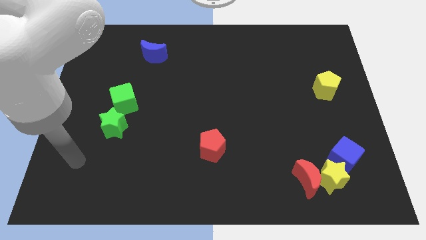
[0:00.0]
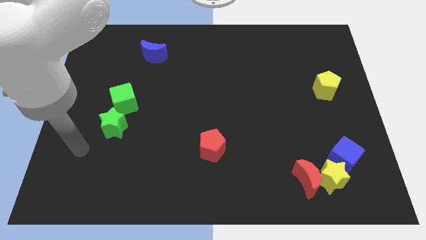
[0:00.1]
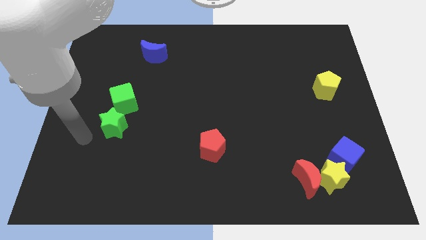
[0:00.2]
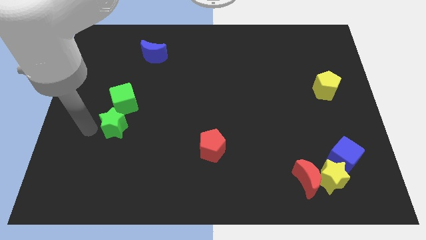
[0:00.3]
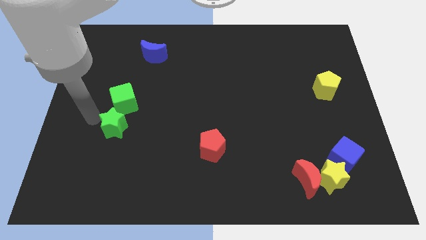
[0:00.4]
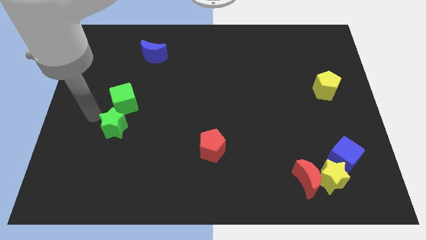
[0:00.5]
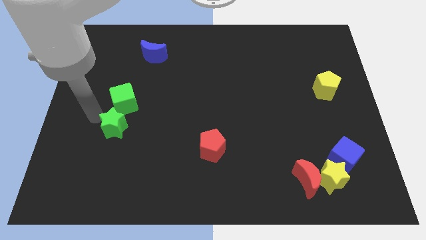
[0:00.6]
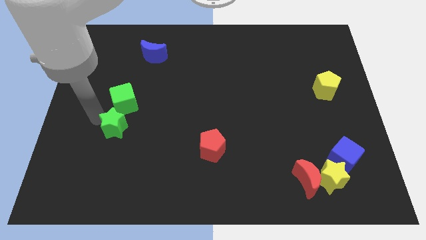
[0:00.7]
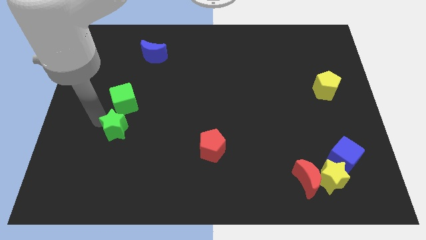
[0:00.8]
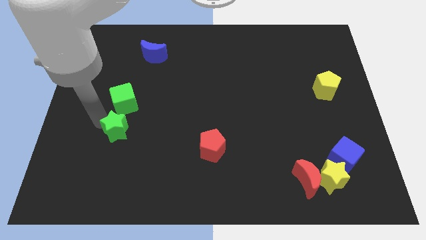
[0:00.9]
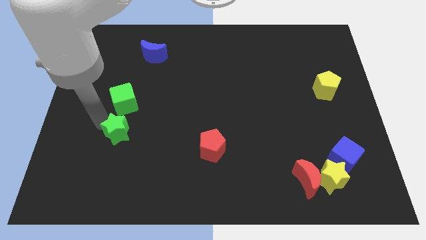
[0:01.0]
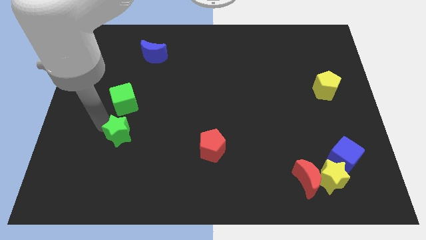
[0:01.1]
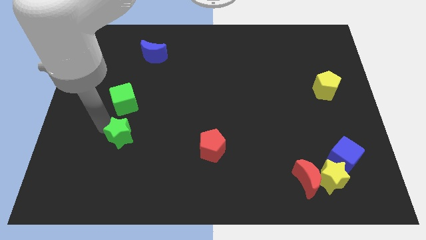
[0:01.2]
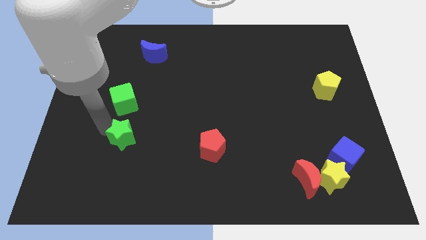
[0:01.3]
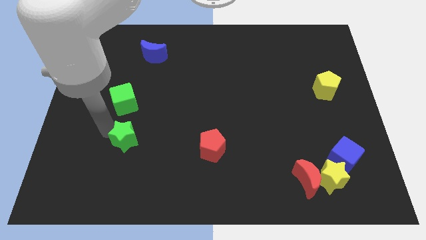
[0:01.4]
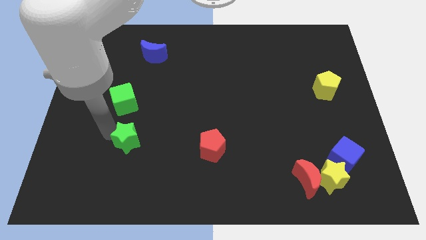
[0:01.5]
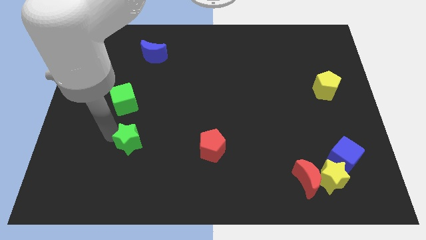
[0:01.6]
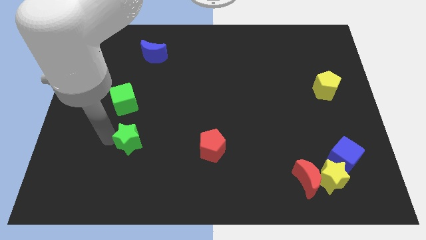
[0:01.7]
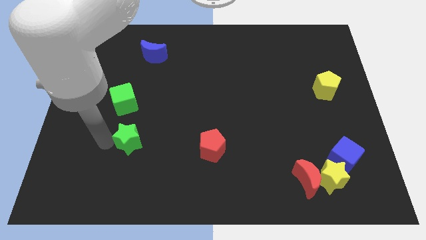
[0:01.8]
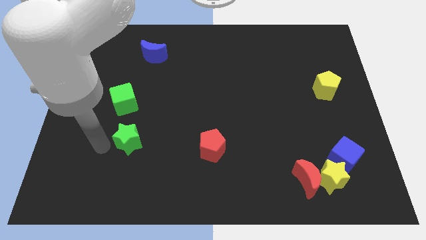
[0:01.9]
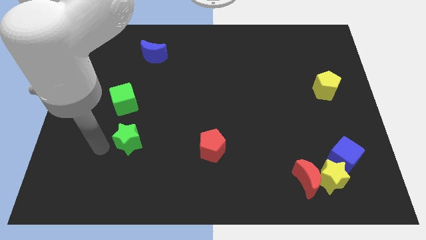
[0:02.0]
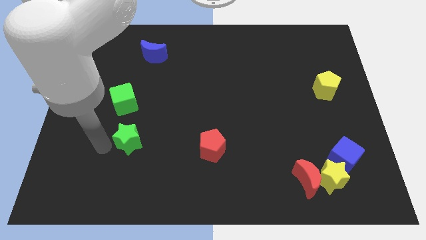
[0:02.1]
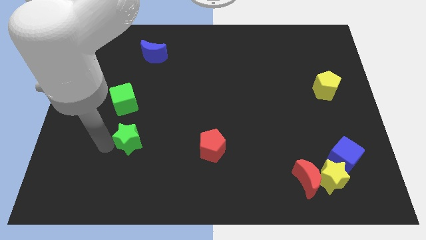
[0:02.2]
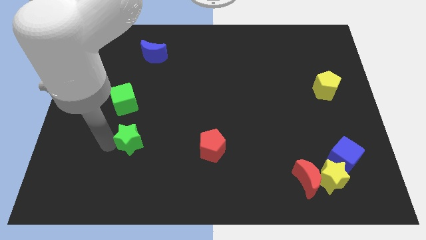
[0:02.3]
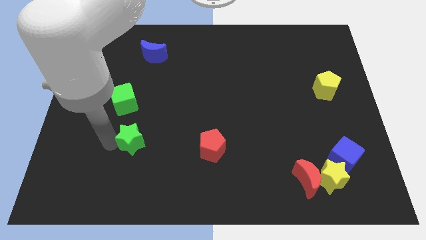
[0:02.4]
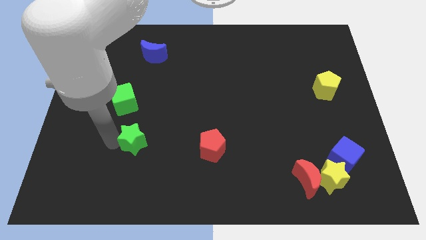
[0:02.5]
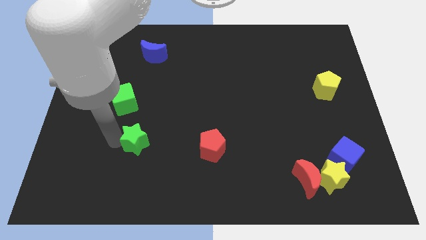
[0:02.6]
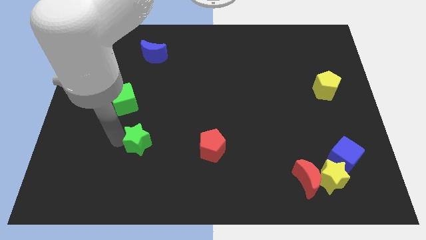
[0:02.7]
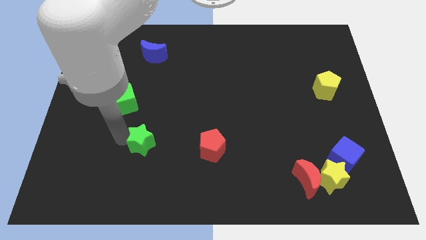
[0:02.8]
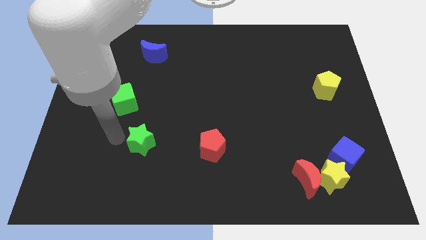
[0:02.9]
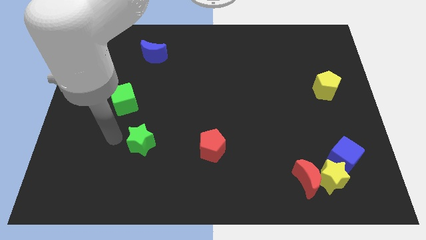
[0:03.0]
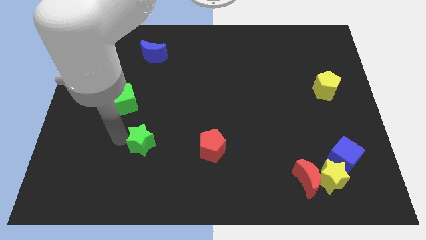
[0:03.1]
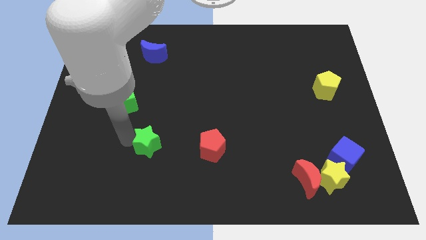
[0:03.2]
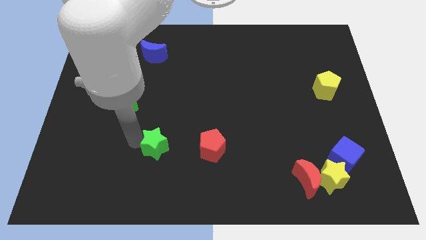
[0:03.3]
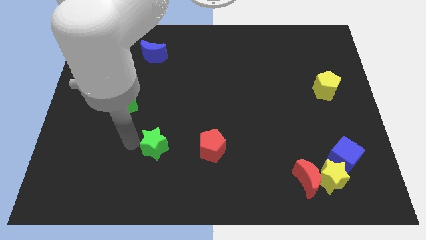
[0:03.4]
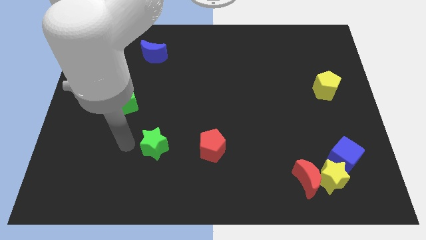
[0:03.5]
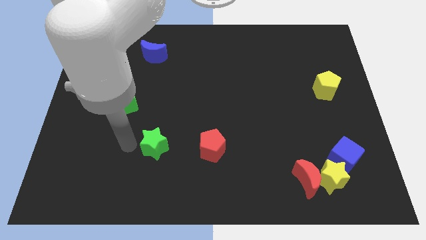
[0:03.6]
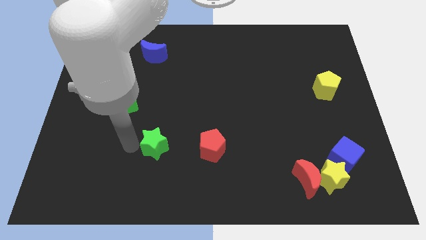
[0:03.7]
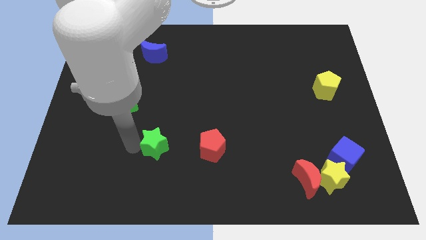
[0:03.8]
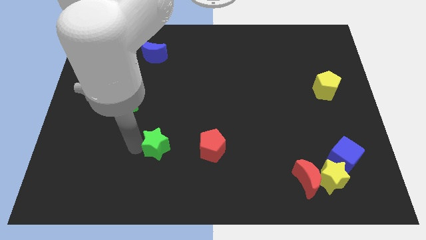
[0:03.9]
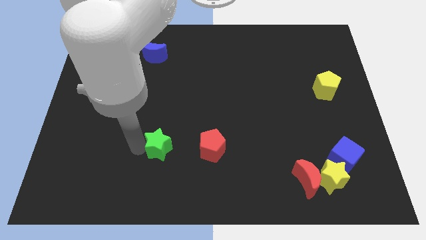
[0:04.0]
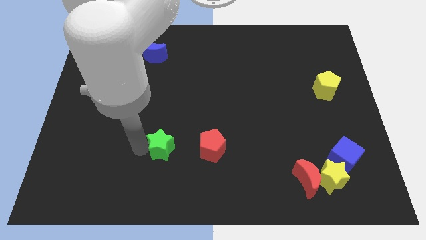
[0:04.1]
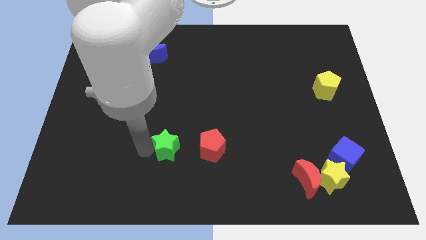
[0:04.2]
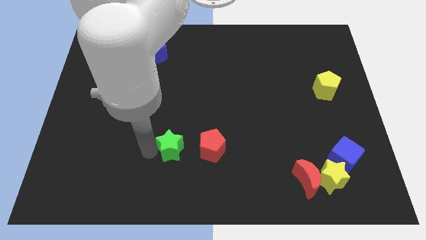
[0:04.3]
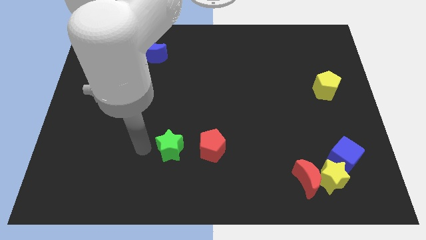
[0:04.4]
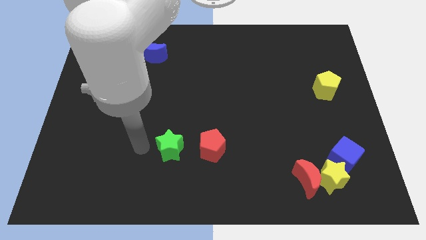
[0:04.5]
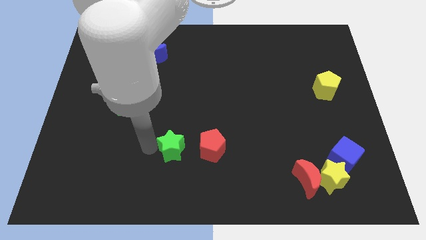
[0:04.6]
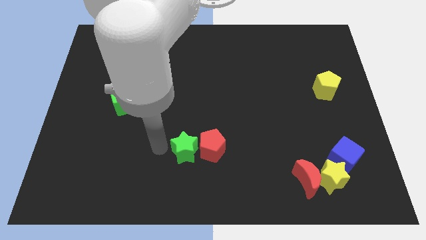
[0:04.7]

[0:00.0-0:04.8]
push the green star to the red pentagon

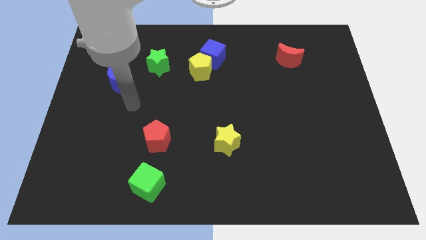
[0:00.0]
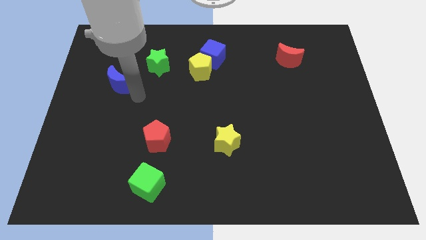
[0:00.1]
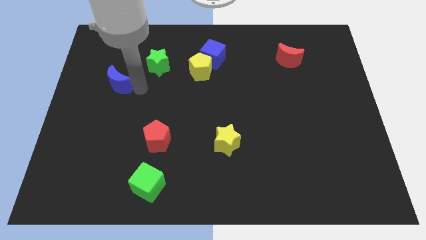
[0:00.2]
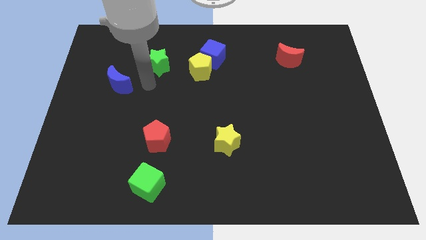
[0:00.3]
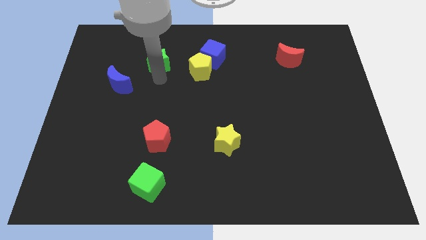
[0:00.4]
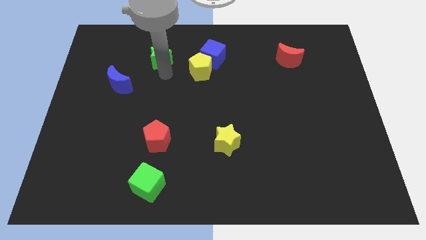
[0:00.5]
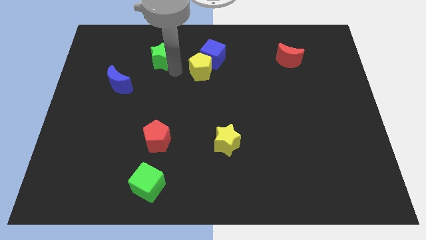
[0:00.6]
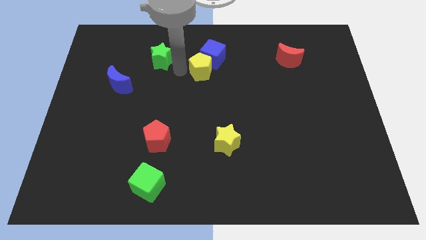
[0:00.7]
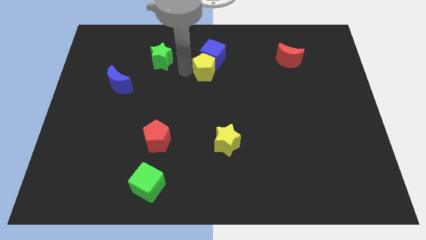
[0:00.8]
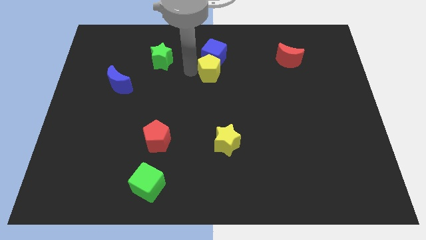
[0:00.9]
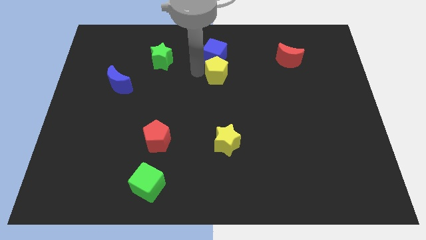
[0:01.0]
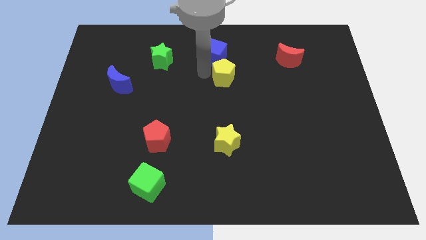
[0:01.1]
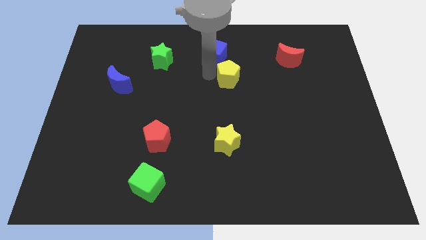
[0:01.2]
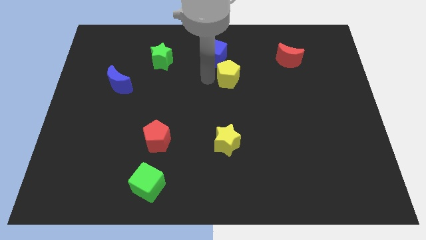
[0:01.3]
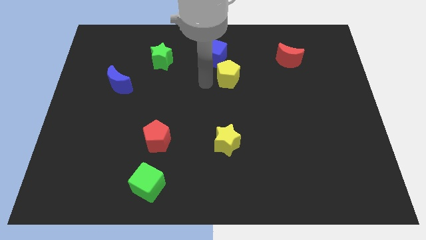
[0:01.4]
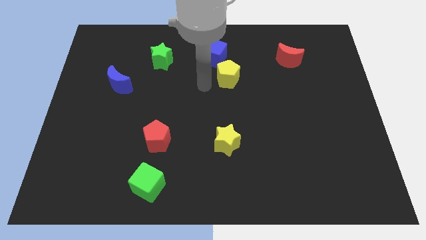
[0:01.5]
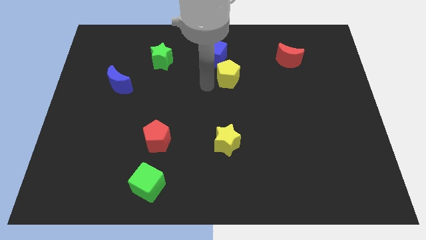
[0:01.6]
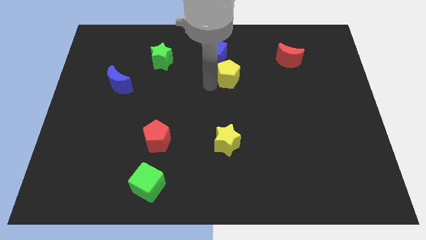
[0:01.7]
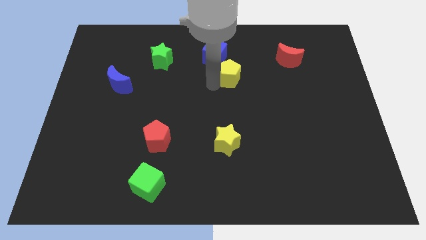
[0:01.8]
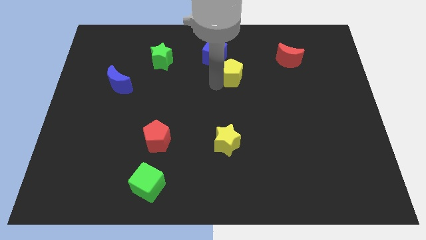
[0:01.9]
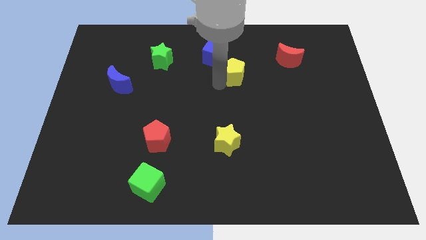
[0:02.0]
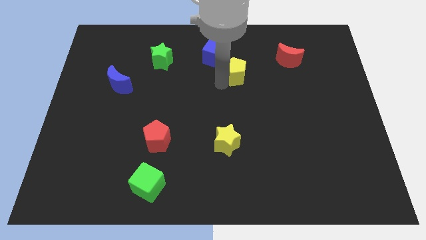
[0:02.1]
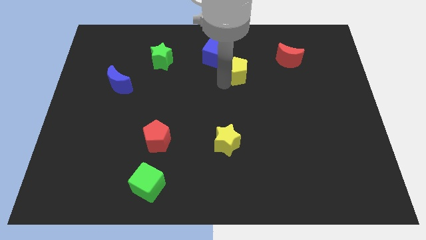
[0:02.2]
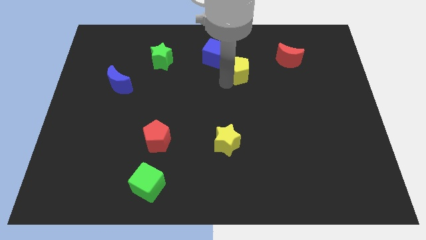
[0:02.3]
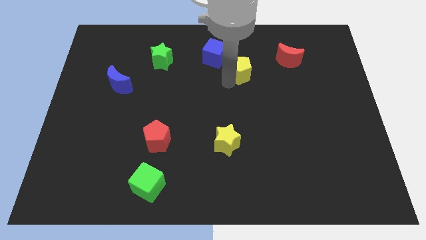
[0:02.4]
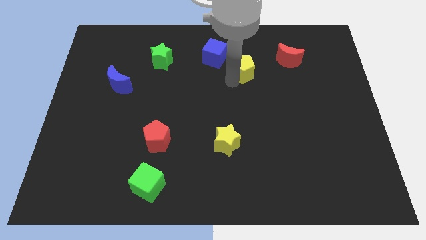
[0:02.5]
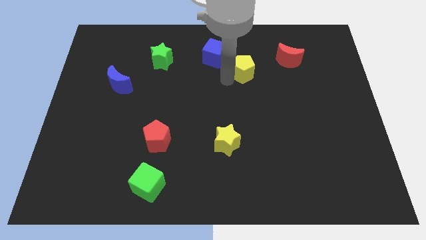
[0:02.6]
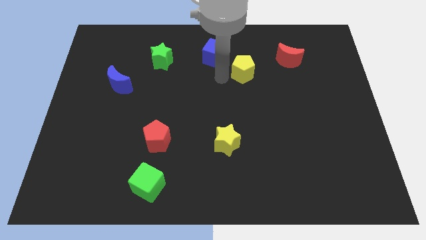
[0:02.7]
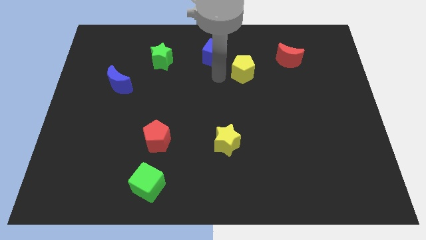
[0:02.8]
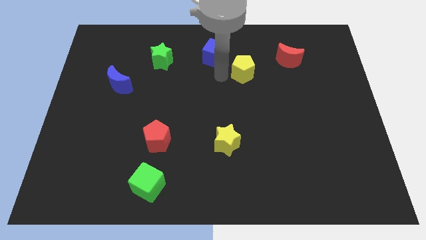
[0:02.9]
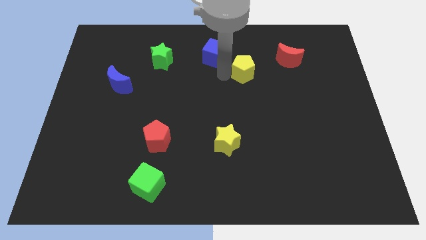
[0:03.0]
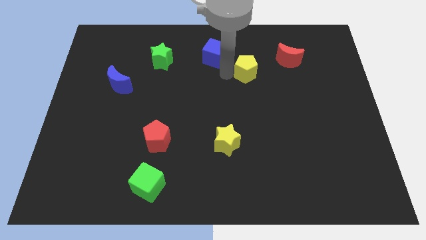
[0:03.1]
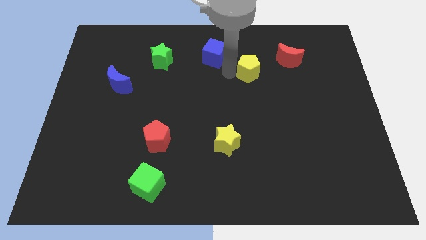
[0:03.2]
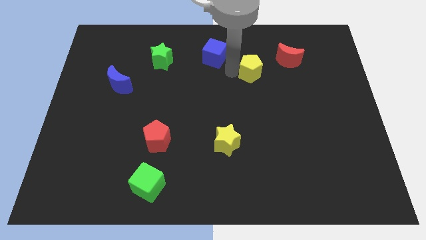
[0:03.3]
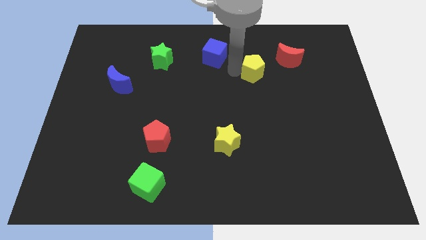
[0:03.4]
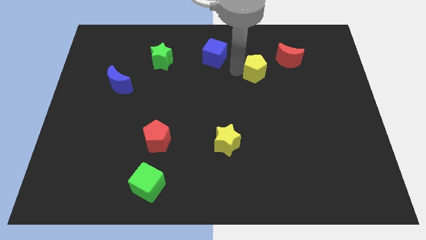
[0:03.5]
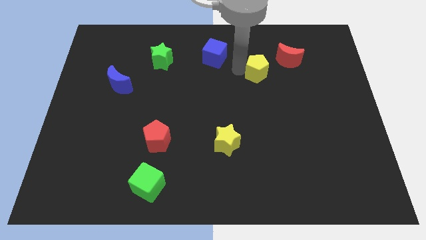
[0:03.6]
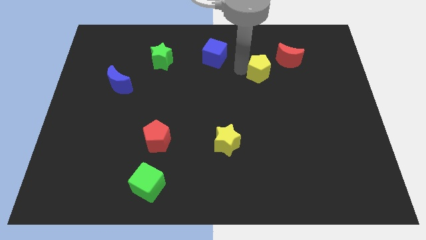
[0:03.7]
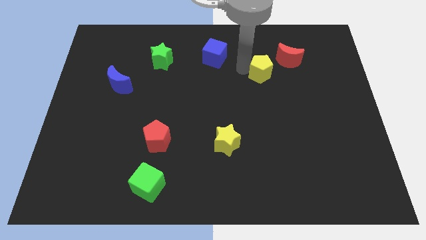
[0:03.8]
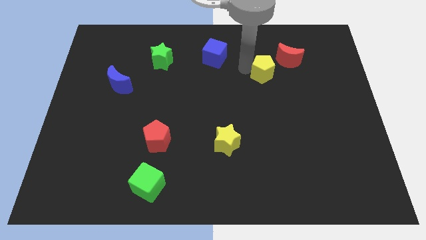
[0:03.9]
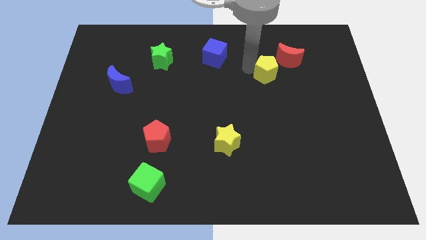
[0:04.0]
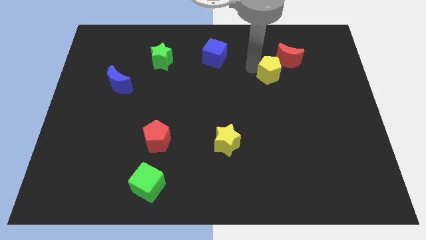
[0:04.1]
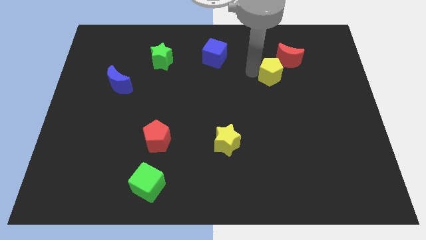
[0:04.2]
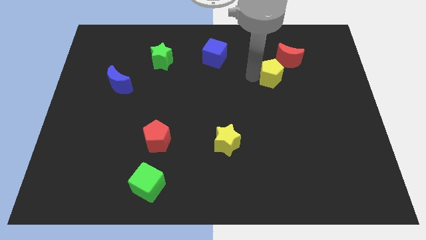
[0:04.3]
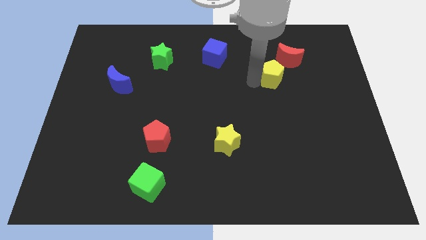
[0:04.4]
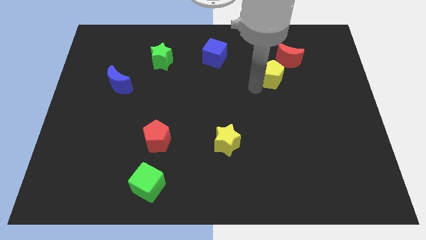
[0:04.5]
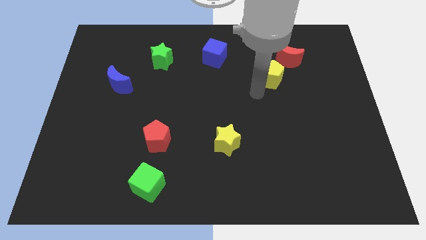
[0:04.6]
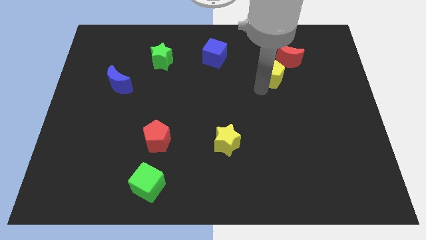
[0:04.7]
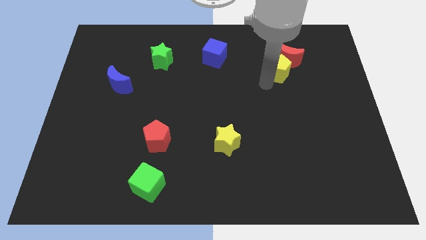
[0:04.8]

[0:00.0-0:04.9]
slide the yellow pentagon towards the red moon
